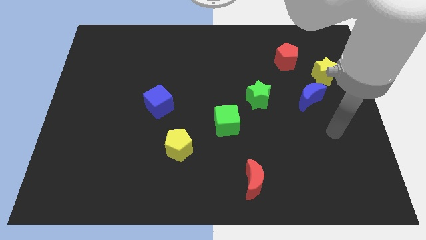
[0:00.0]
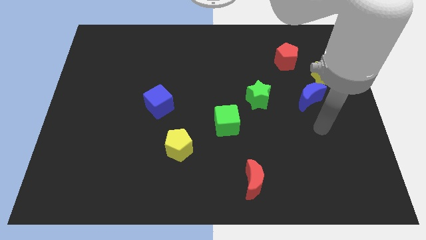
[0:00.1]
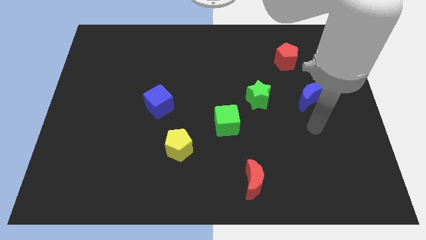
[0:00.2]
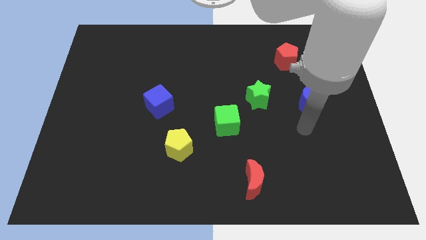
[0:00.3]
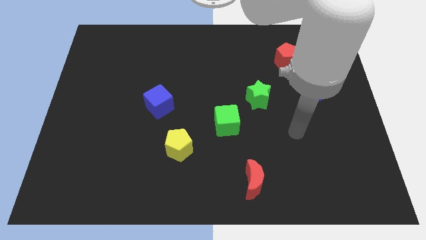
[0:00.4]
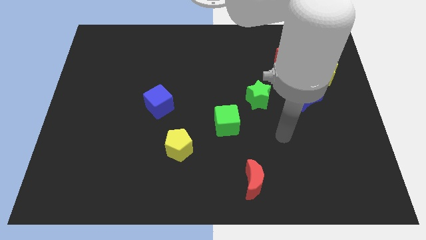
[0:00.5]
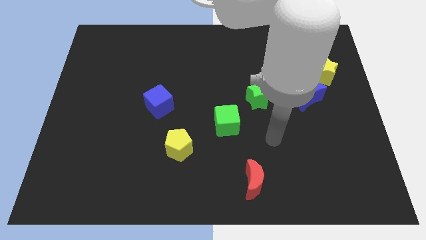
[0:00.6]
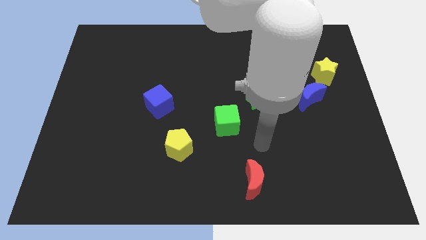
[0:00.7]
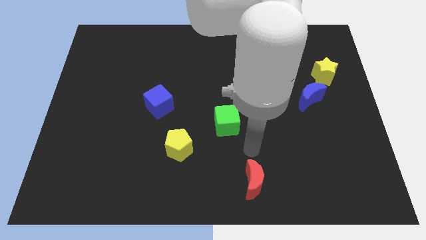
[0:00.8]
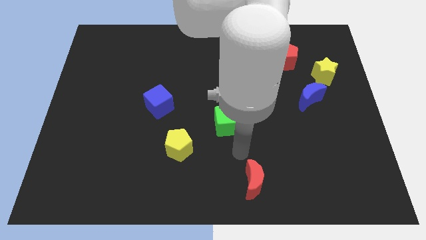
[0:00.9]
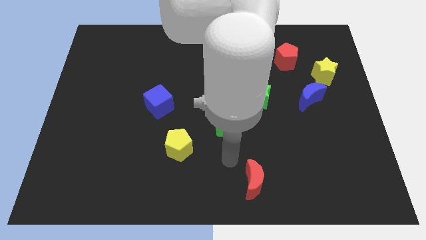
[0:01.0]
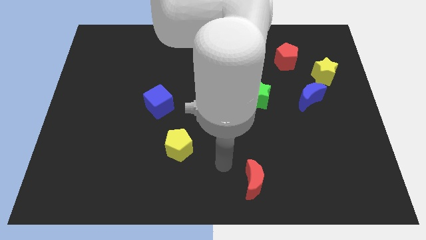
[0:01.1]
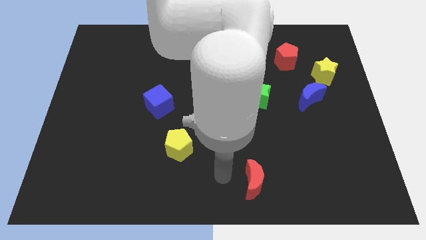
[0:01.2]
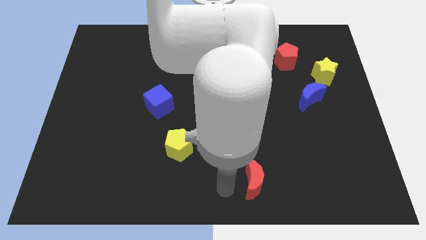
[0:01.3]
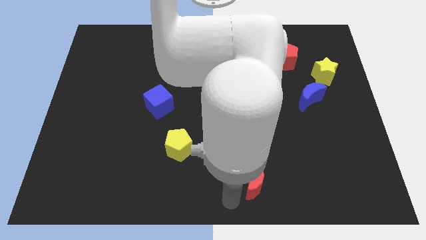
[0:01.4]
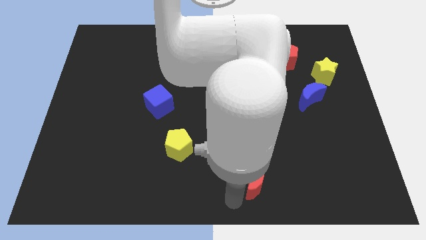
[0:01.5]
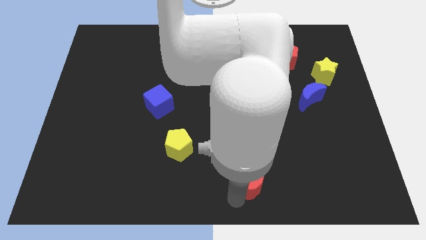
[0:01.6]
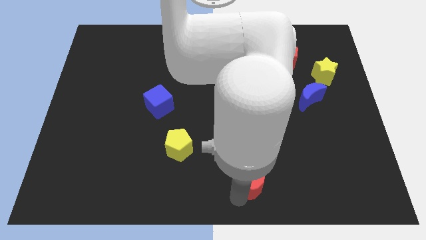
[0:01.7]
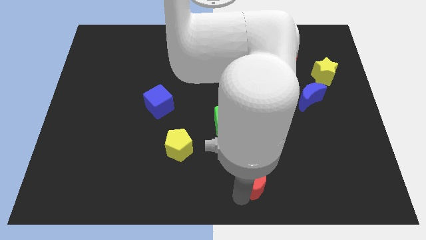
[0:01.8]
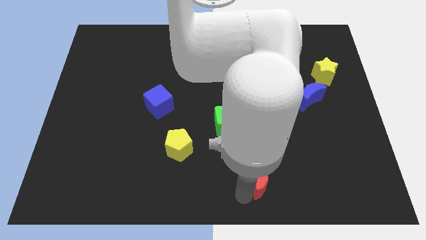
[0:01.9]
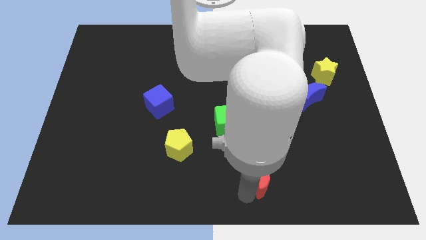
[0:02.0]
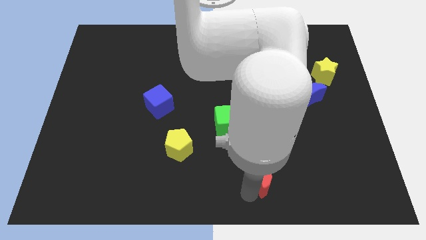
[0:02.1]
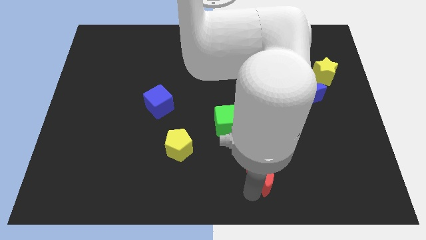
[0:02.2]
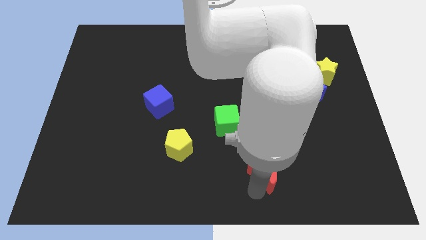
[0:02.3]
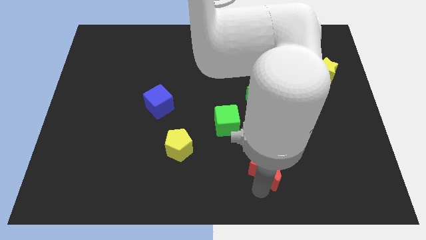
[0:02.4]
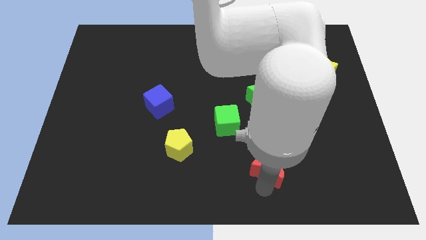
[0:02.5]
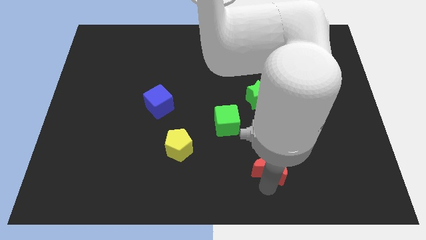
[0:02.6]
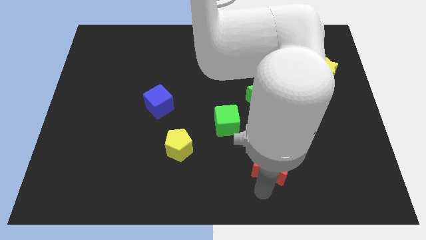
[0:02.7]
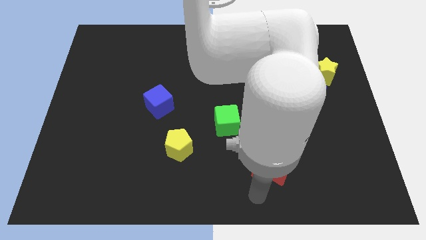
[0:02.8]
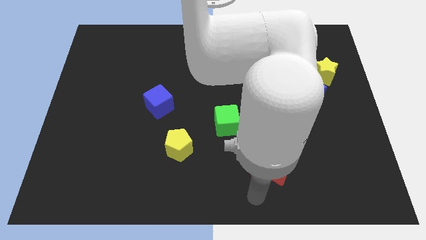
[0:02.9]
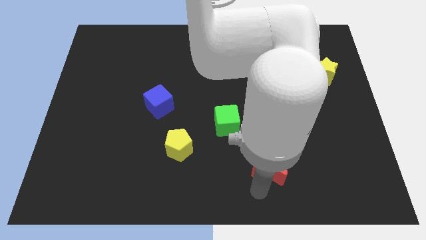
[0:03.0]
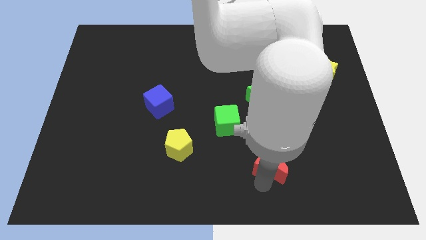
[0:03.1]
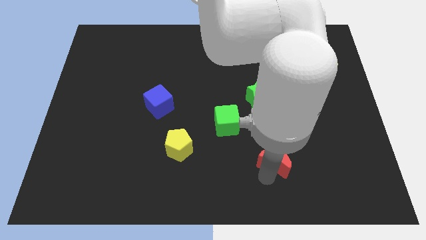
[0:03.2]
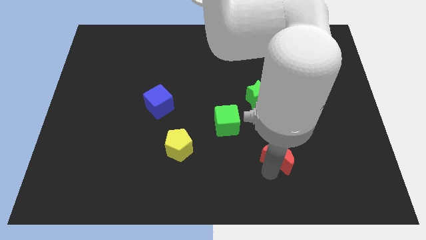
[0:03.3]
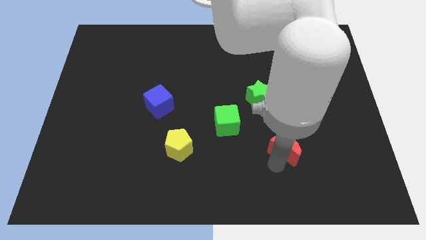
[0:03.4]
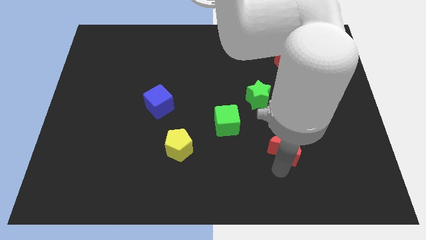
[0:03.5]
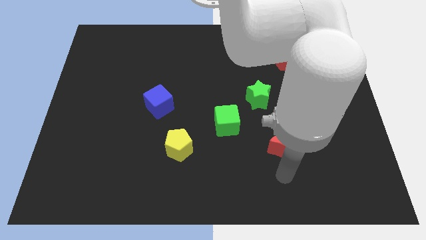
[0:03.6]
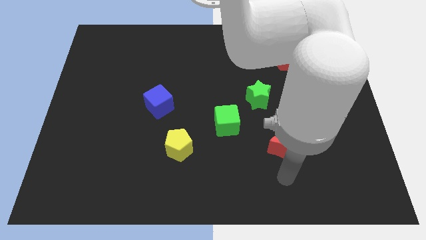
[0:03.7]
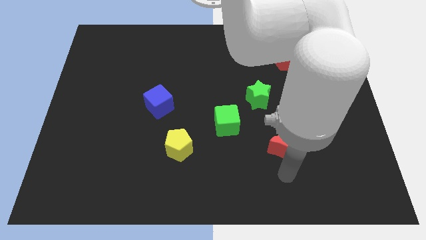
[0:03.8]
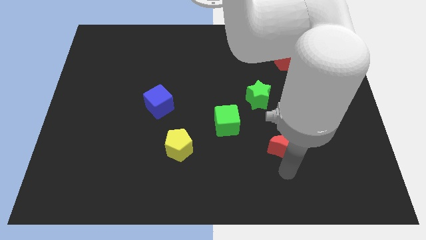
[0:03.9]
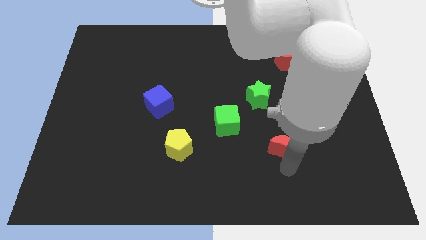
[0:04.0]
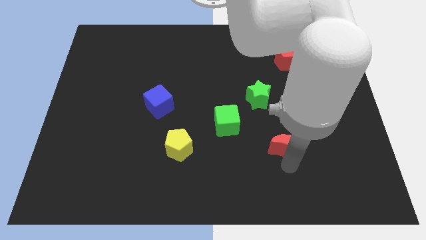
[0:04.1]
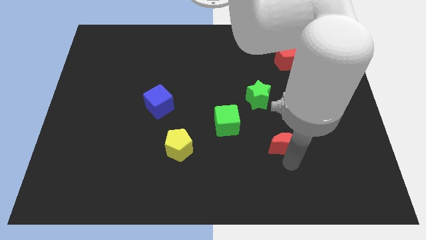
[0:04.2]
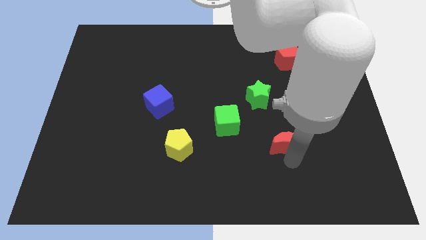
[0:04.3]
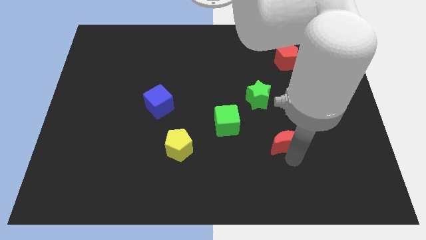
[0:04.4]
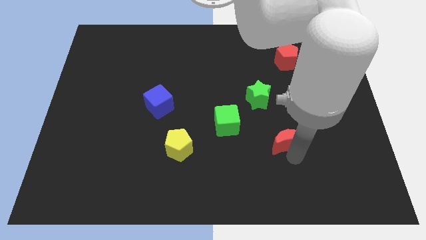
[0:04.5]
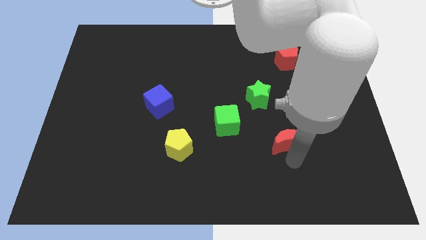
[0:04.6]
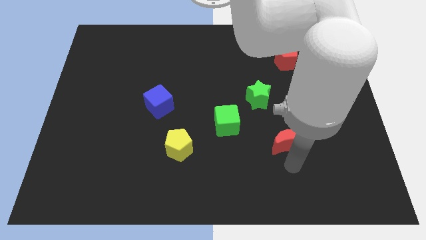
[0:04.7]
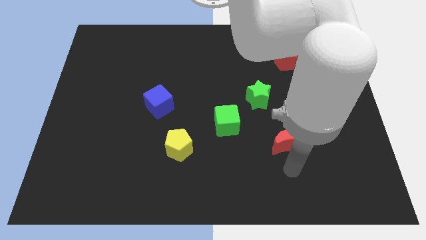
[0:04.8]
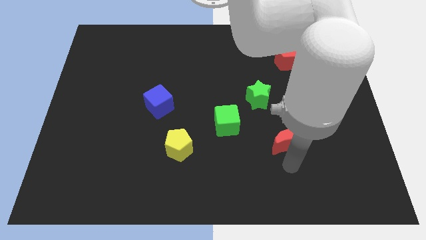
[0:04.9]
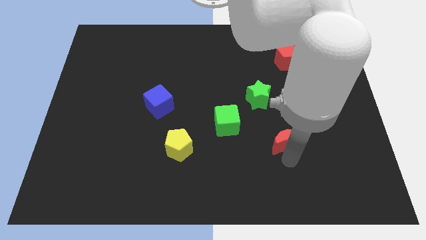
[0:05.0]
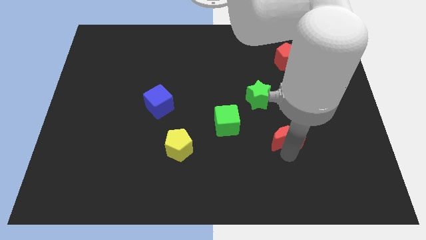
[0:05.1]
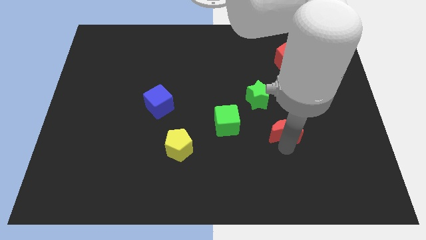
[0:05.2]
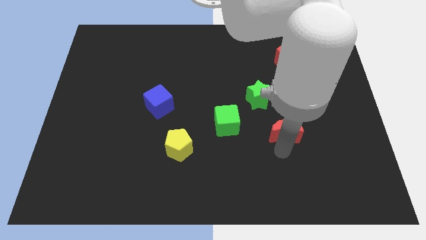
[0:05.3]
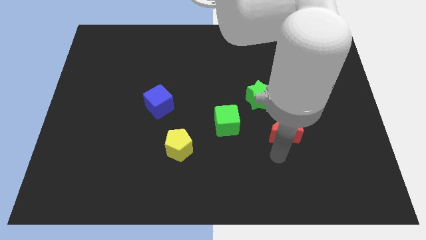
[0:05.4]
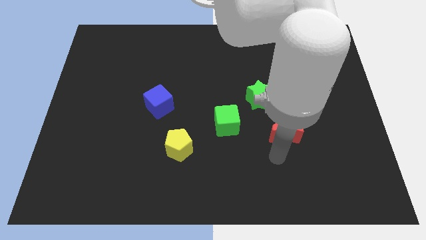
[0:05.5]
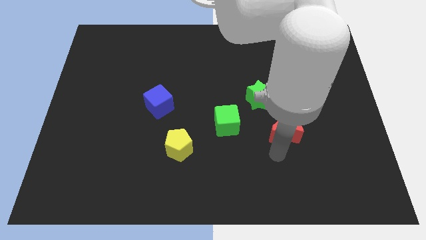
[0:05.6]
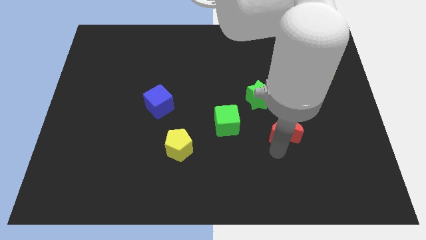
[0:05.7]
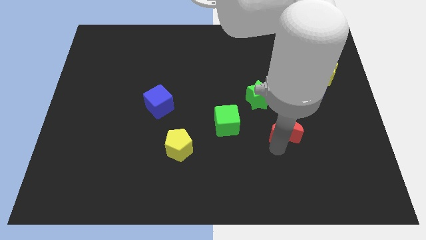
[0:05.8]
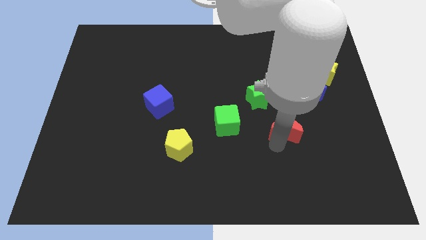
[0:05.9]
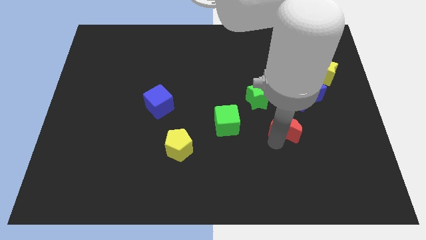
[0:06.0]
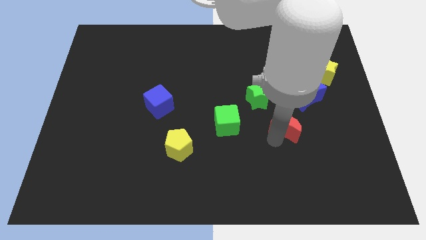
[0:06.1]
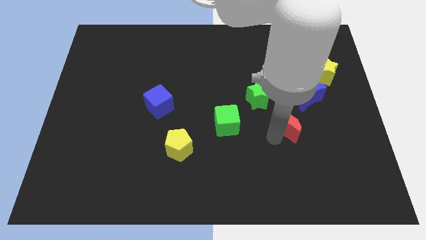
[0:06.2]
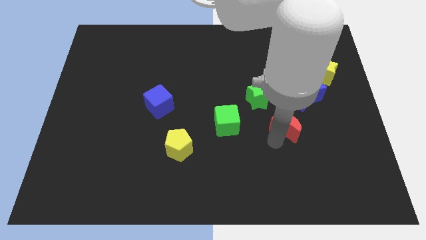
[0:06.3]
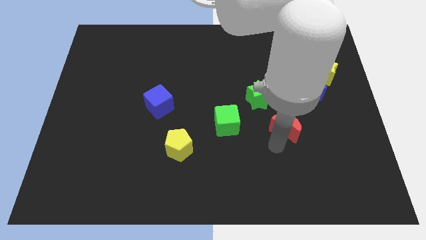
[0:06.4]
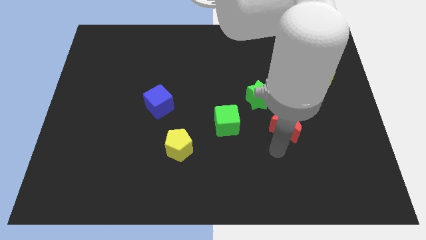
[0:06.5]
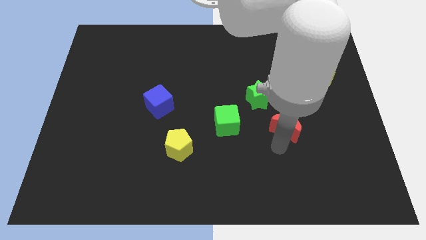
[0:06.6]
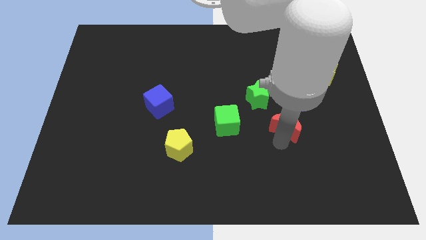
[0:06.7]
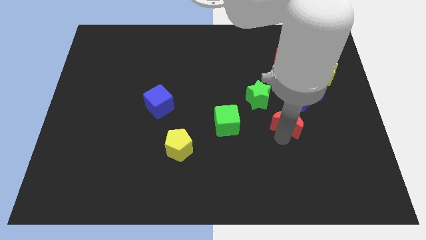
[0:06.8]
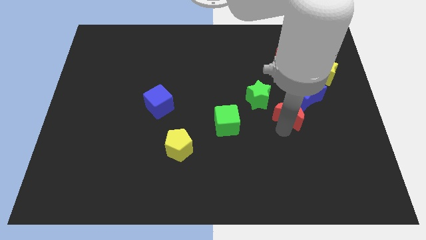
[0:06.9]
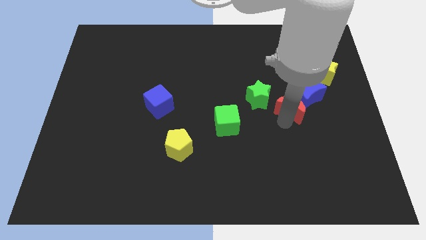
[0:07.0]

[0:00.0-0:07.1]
put the red moon close to the blue moon
